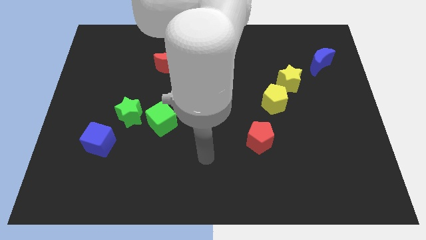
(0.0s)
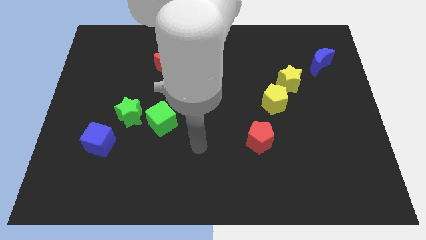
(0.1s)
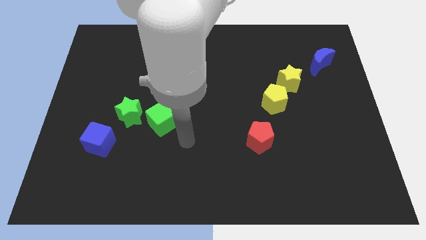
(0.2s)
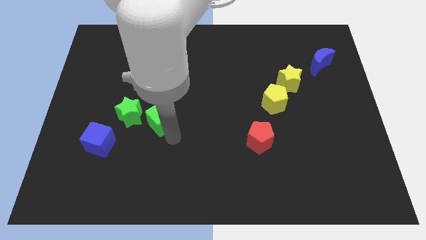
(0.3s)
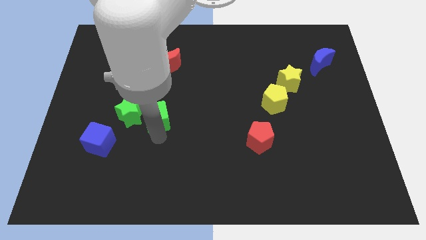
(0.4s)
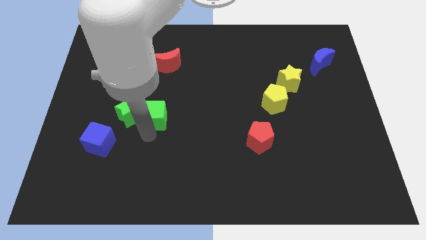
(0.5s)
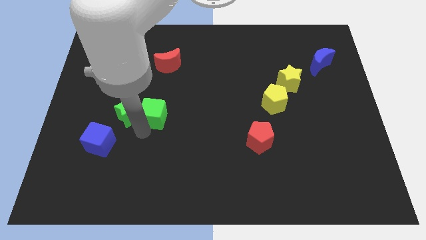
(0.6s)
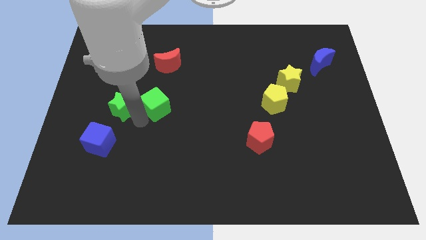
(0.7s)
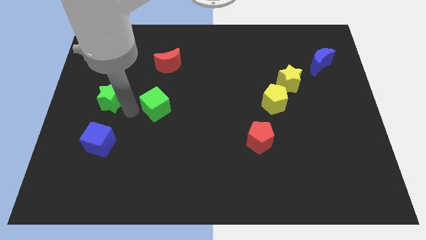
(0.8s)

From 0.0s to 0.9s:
separate the green cube from the green star

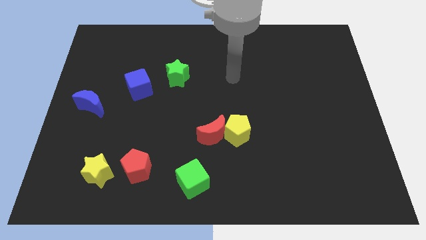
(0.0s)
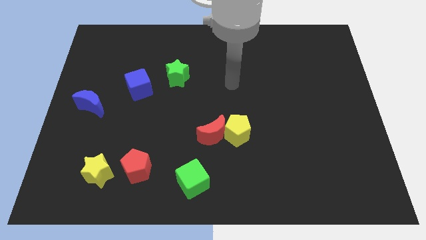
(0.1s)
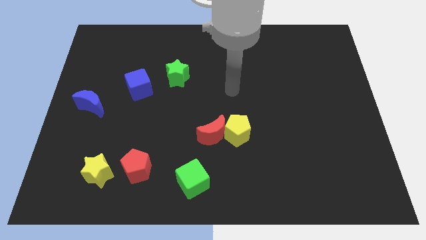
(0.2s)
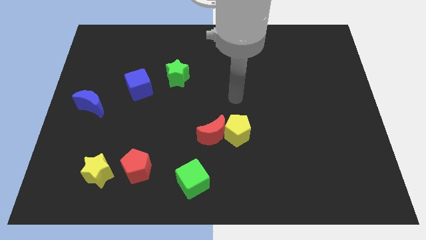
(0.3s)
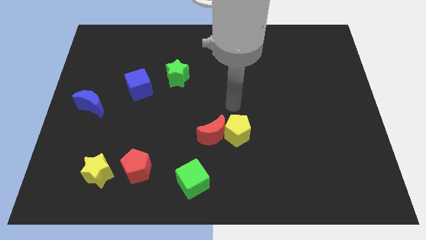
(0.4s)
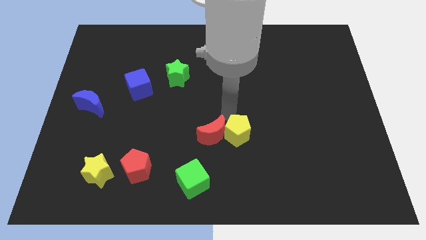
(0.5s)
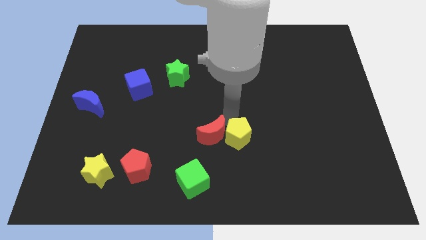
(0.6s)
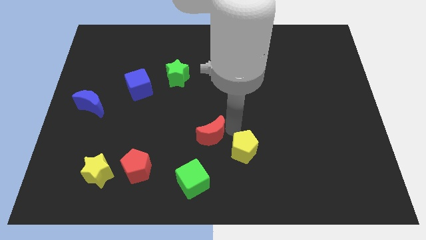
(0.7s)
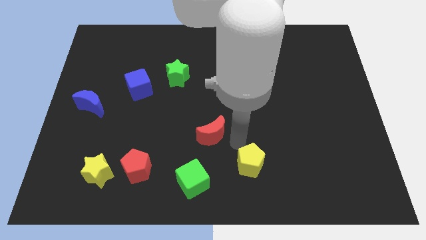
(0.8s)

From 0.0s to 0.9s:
separate the red moon from the yellow pentagon

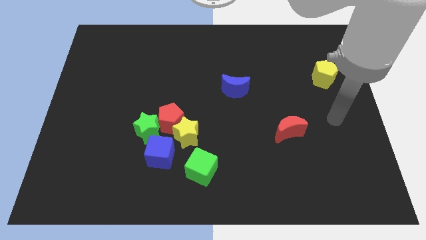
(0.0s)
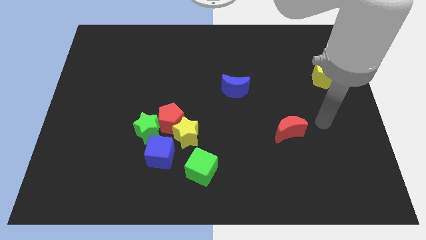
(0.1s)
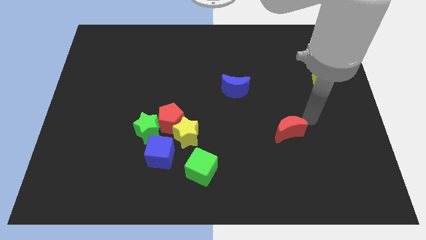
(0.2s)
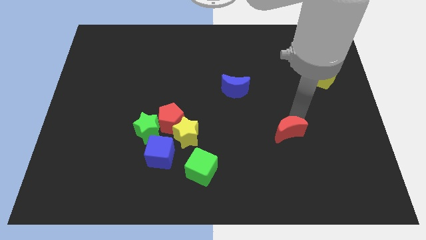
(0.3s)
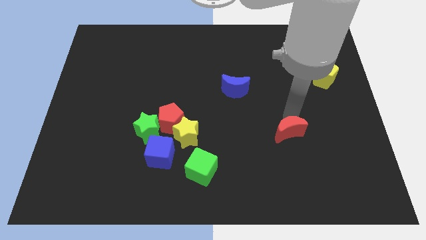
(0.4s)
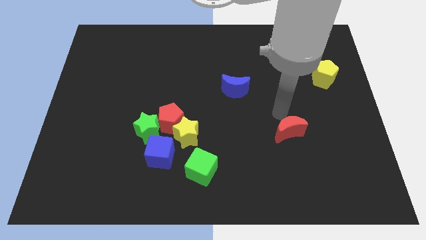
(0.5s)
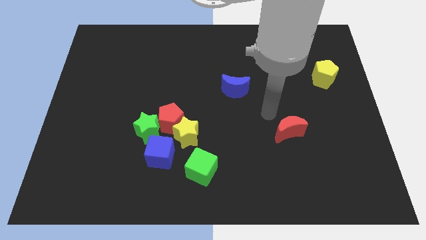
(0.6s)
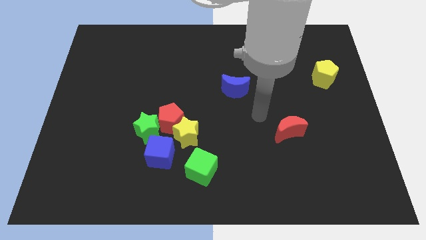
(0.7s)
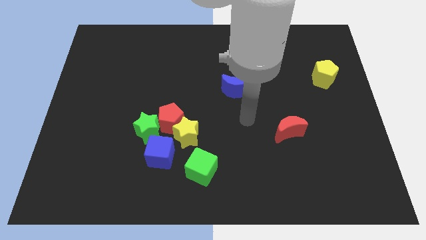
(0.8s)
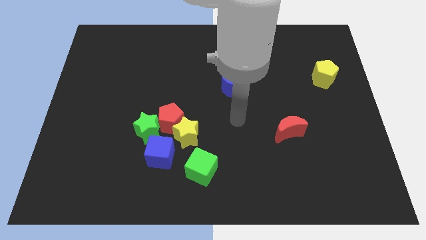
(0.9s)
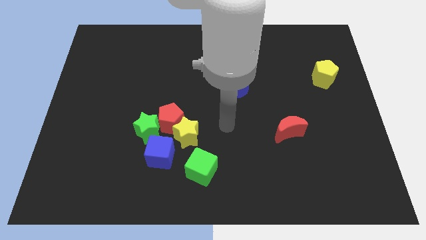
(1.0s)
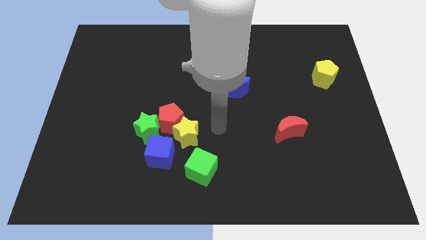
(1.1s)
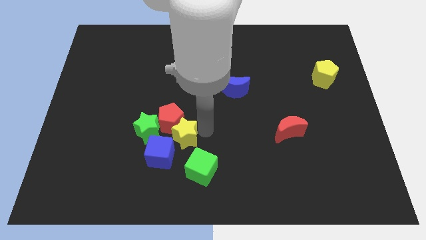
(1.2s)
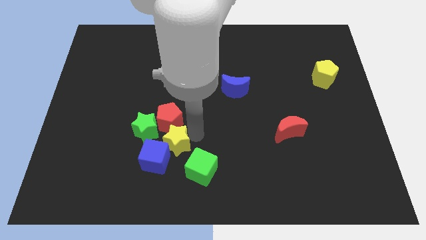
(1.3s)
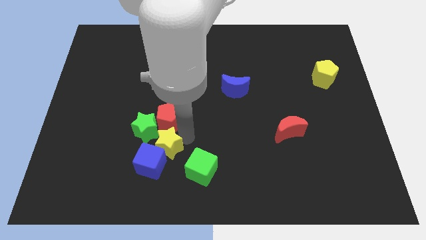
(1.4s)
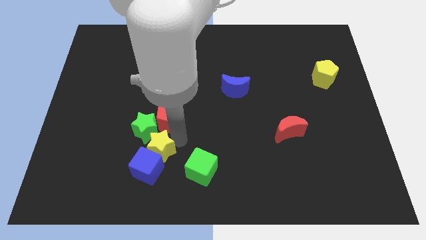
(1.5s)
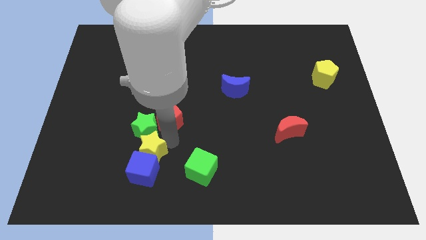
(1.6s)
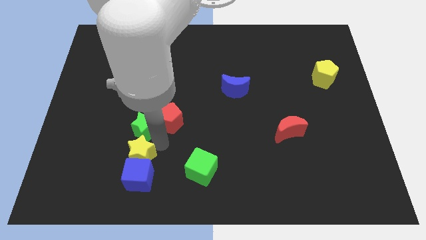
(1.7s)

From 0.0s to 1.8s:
separate the red pentagon from the group of blocks

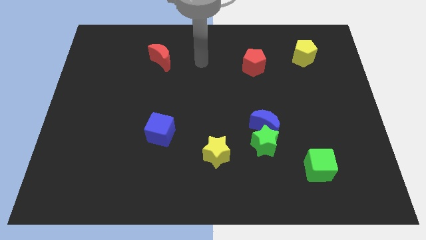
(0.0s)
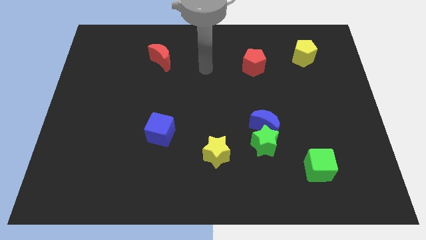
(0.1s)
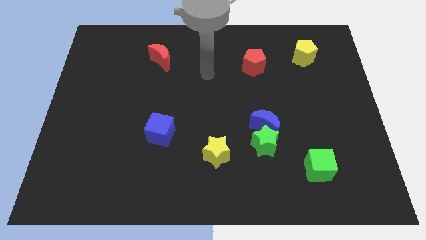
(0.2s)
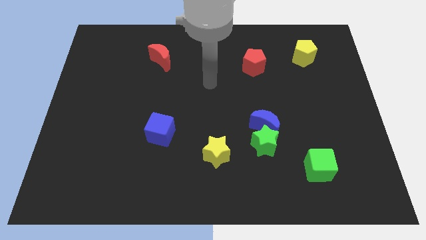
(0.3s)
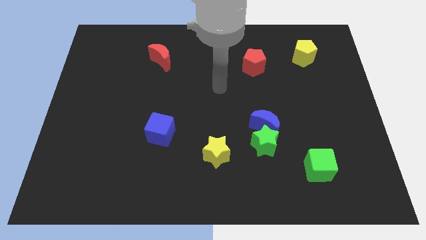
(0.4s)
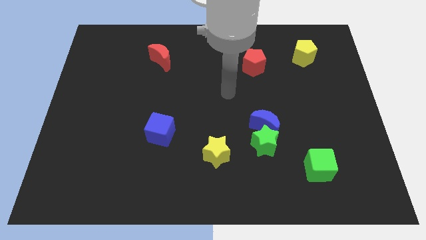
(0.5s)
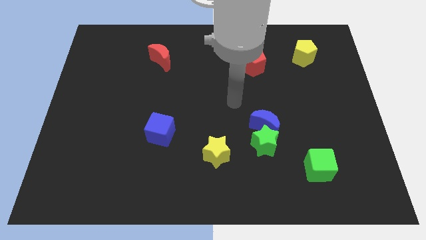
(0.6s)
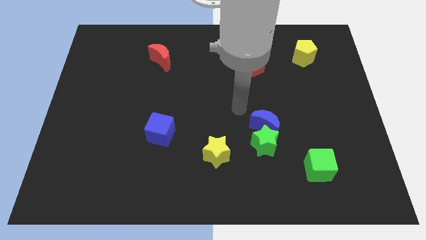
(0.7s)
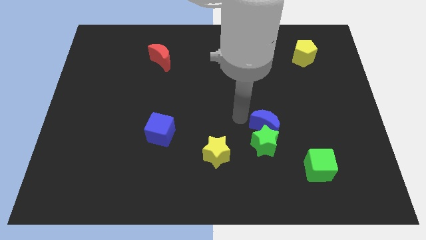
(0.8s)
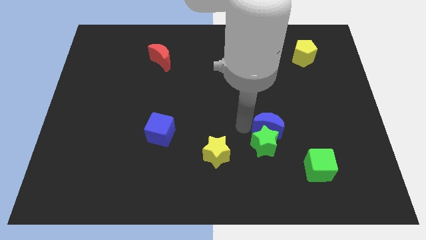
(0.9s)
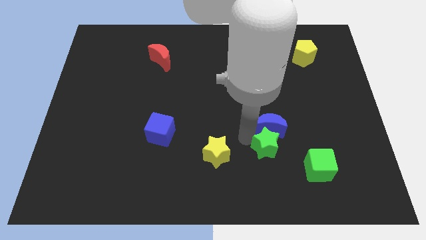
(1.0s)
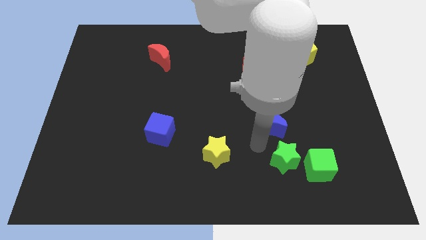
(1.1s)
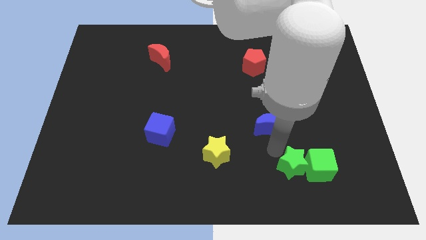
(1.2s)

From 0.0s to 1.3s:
move the blue moon away from the green star

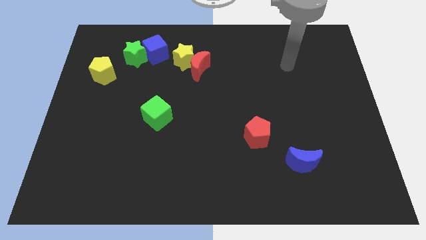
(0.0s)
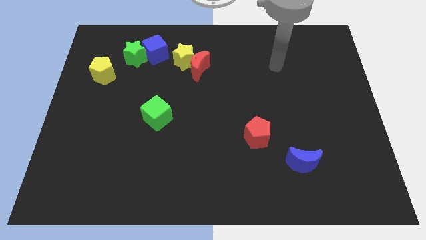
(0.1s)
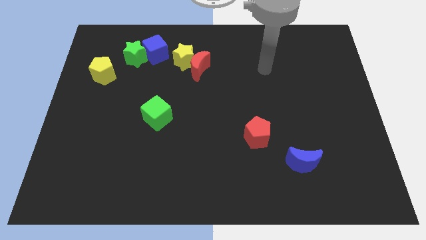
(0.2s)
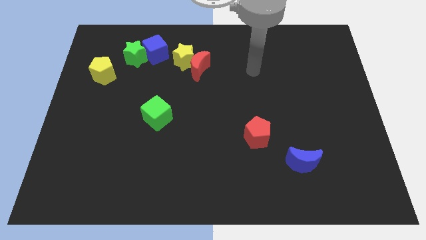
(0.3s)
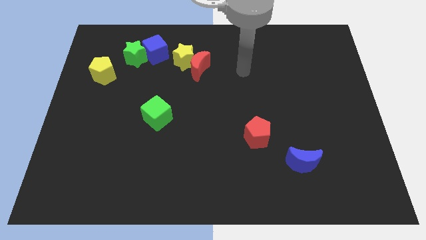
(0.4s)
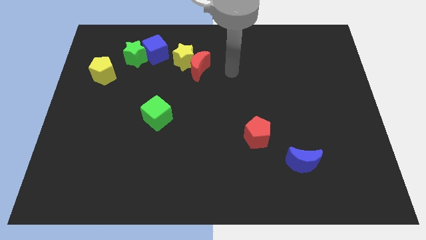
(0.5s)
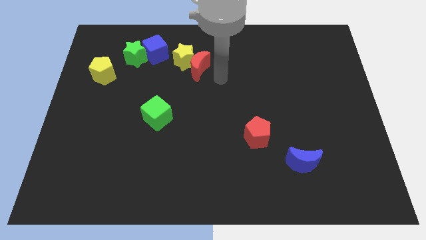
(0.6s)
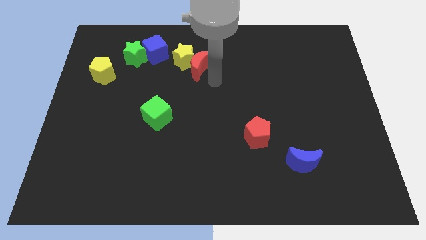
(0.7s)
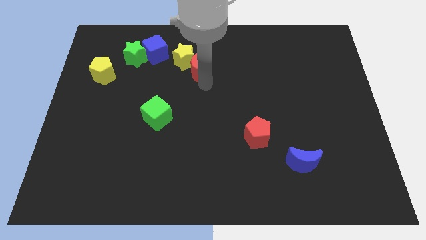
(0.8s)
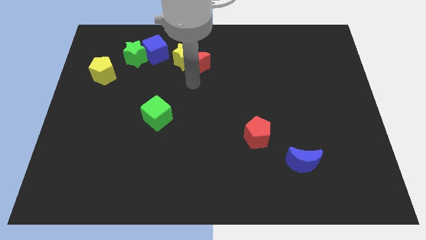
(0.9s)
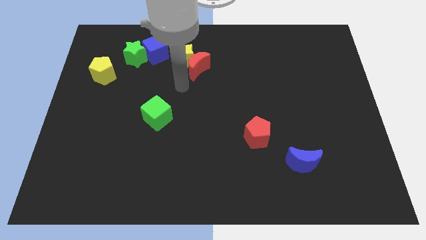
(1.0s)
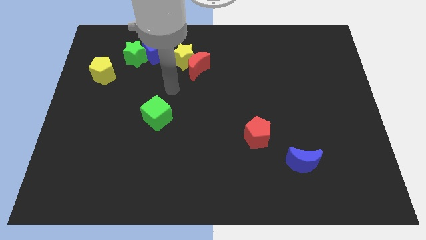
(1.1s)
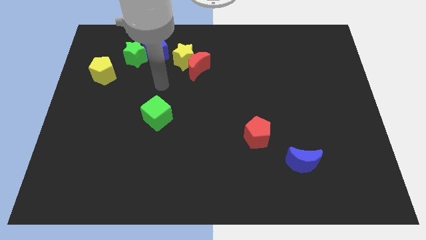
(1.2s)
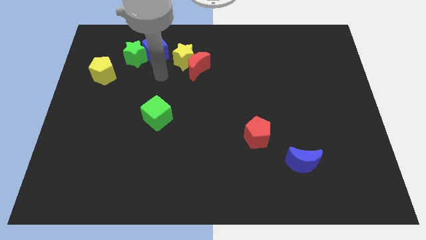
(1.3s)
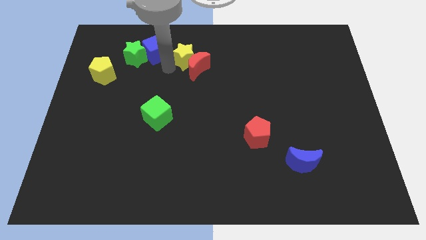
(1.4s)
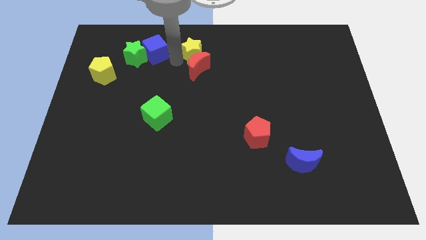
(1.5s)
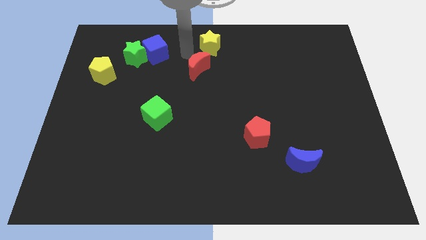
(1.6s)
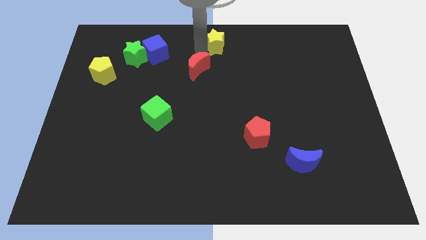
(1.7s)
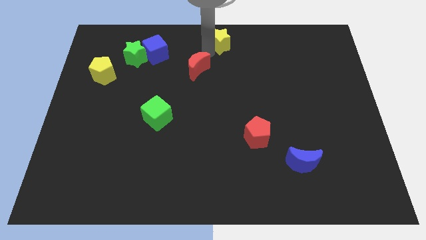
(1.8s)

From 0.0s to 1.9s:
pull the red moon apart from the yellow star

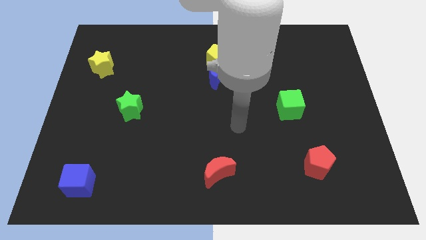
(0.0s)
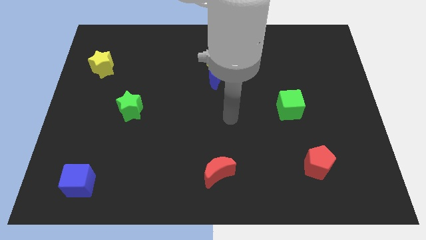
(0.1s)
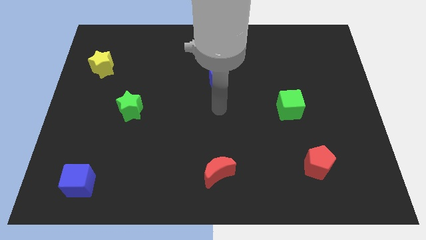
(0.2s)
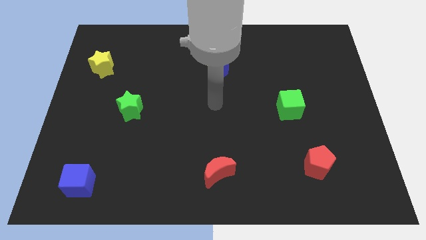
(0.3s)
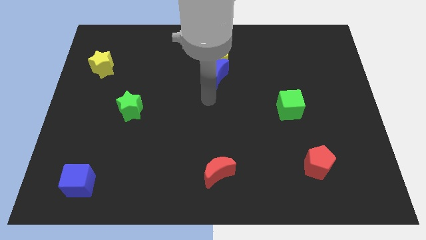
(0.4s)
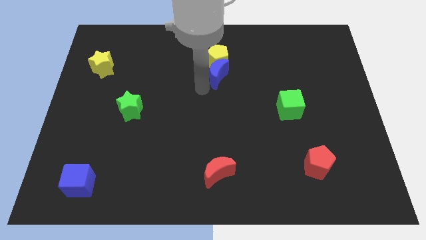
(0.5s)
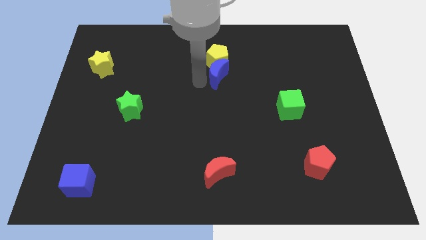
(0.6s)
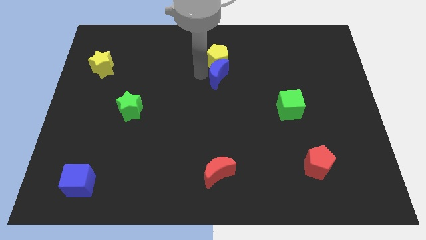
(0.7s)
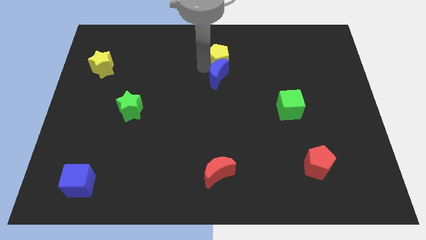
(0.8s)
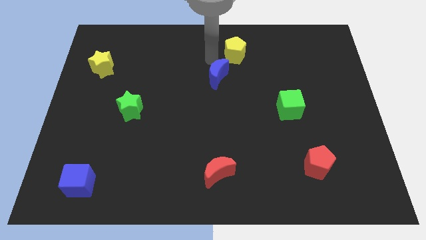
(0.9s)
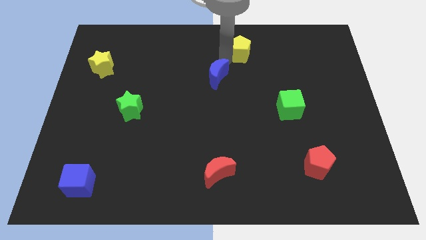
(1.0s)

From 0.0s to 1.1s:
pull the blue moon apart from the yellow pentagon

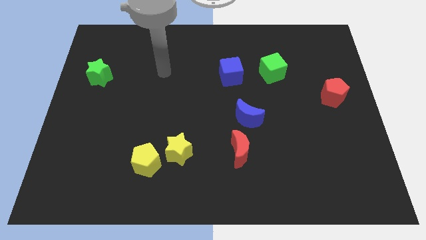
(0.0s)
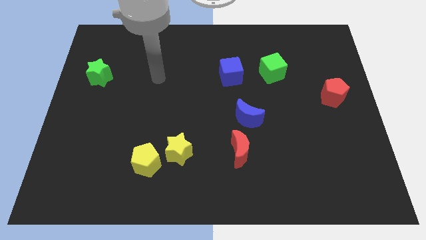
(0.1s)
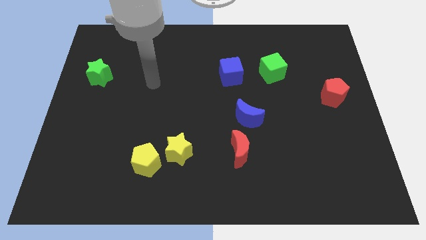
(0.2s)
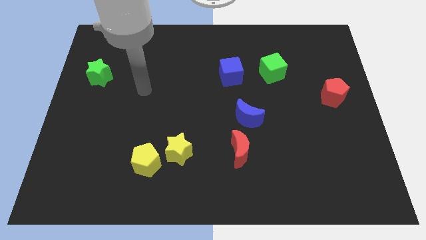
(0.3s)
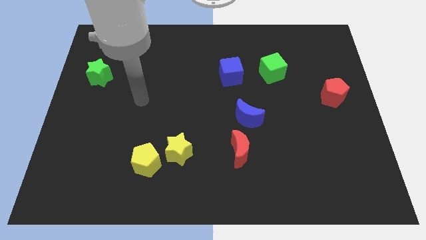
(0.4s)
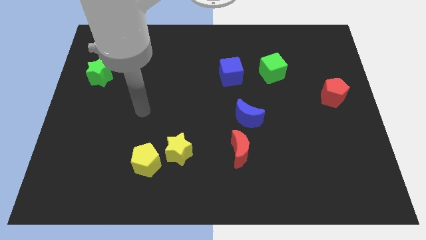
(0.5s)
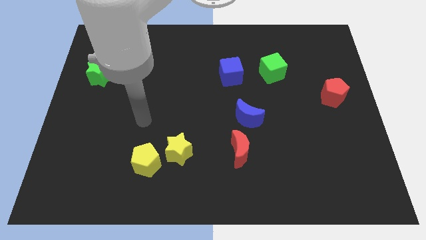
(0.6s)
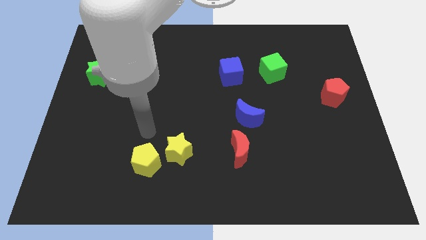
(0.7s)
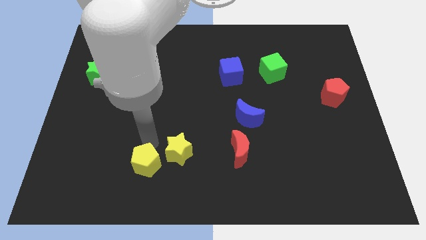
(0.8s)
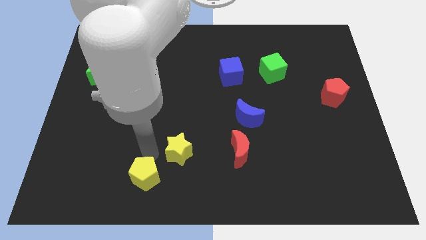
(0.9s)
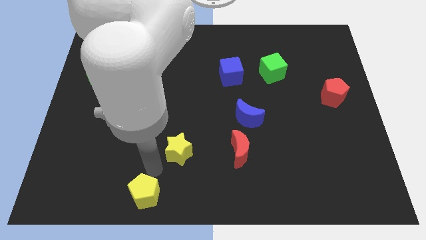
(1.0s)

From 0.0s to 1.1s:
separate the yellow star from the yellow pentagon

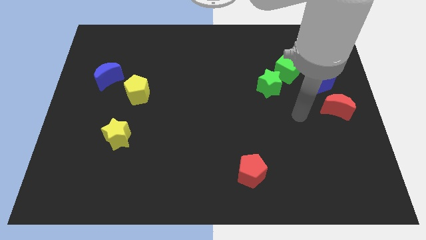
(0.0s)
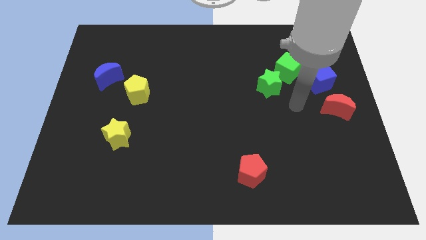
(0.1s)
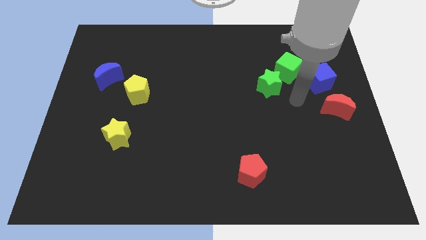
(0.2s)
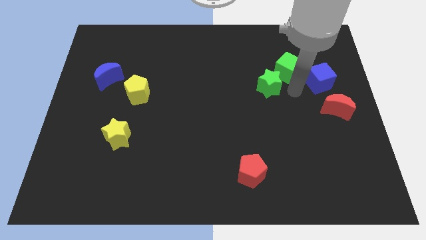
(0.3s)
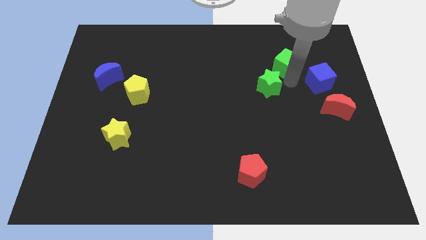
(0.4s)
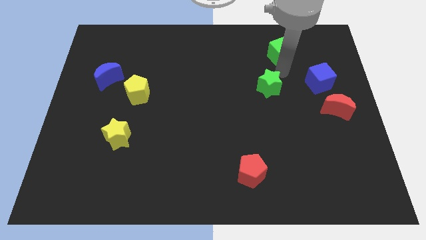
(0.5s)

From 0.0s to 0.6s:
separate the green star from the green cube
